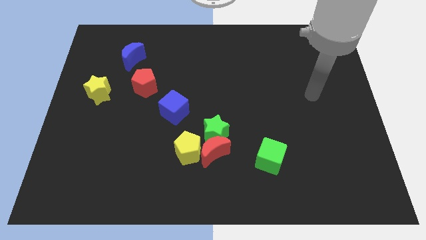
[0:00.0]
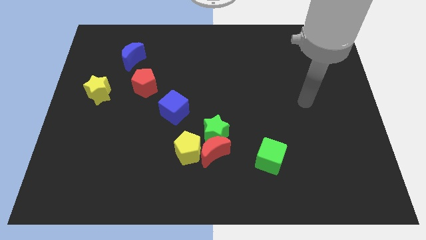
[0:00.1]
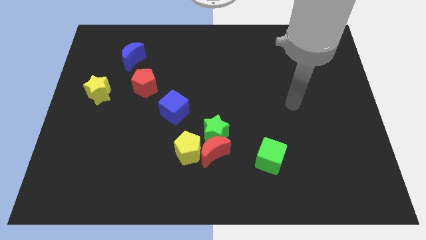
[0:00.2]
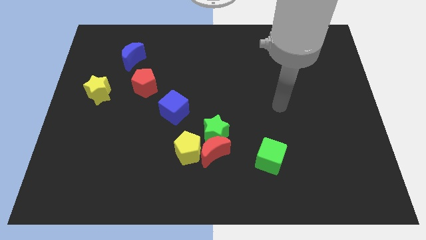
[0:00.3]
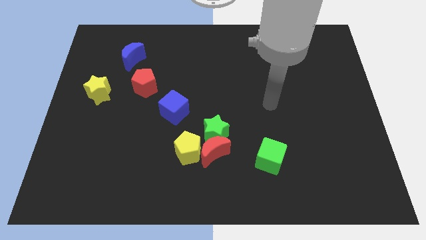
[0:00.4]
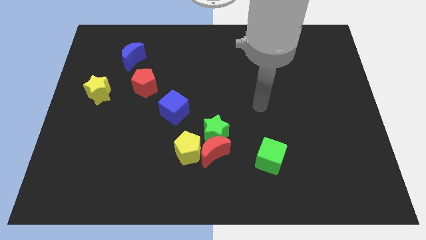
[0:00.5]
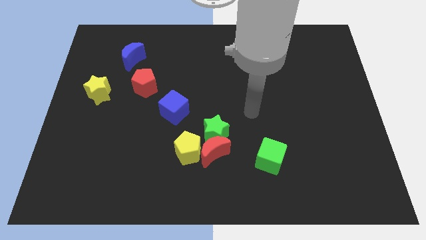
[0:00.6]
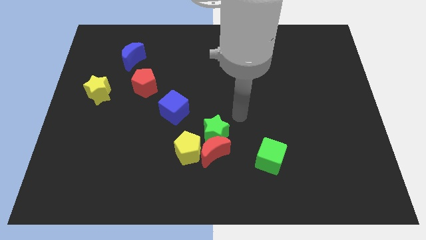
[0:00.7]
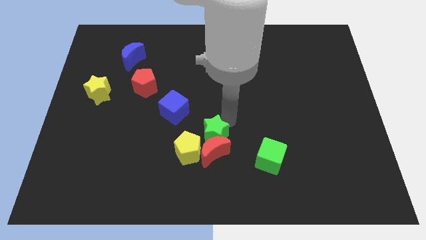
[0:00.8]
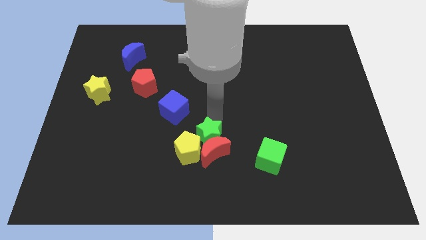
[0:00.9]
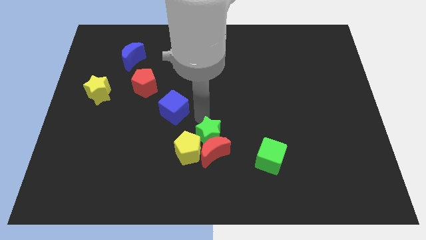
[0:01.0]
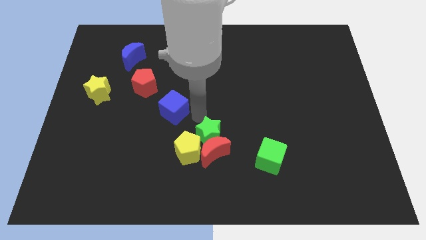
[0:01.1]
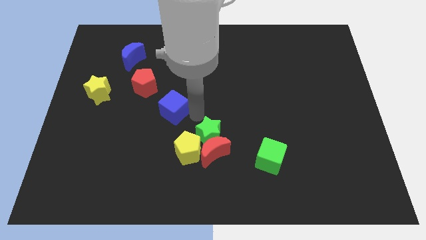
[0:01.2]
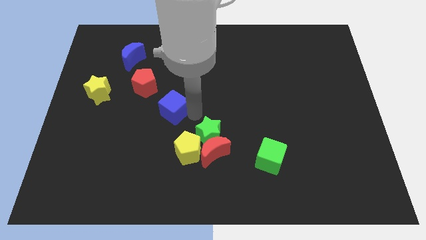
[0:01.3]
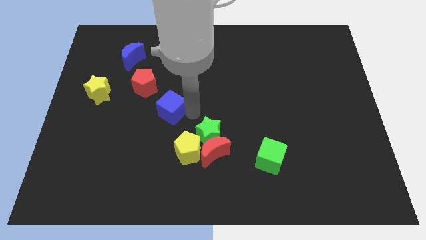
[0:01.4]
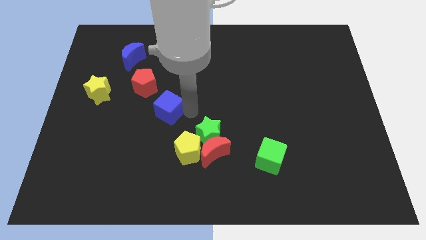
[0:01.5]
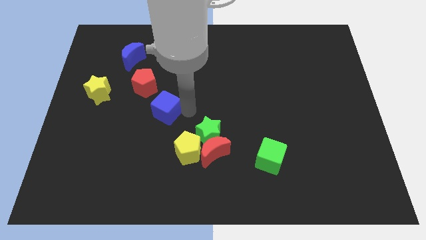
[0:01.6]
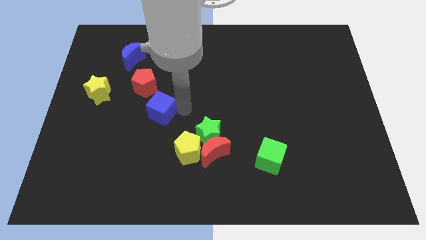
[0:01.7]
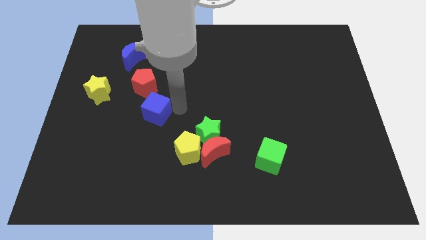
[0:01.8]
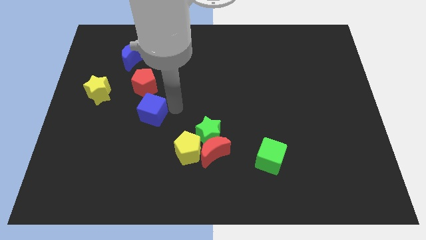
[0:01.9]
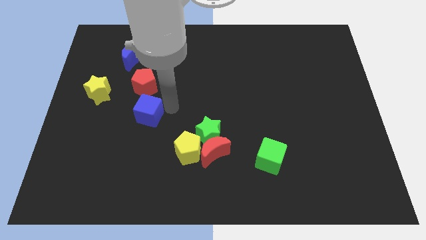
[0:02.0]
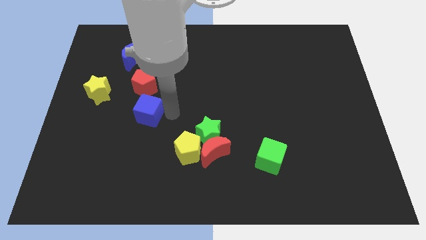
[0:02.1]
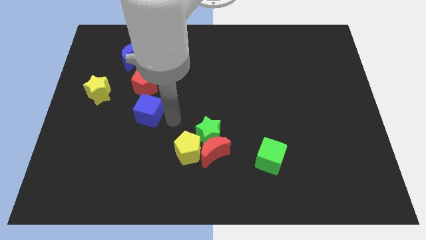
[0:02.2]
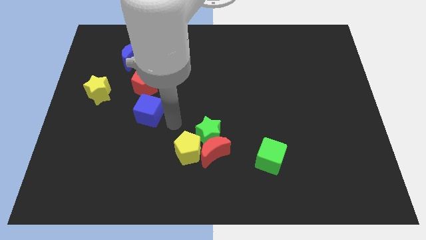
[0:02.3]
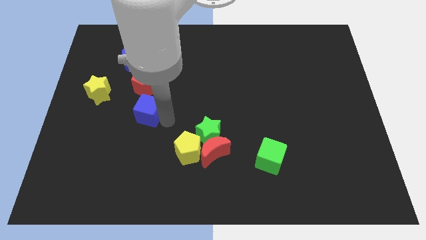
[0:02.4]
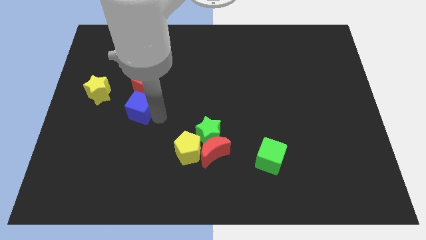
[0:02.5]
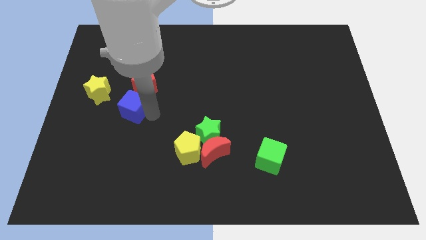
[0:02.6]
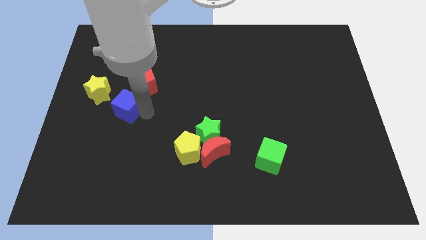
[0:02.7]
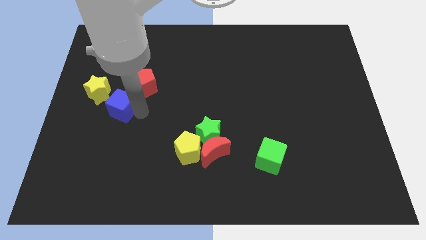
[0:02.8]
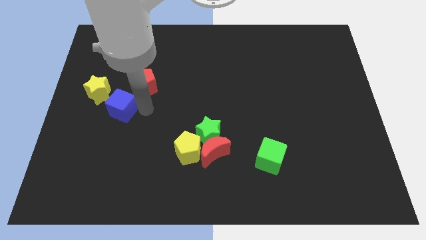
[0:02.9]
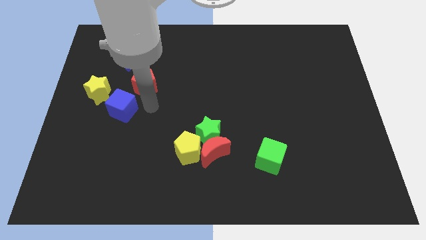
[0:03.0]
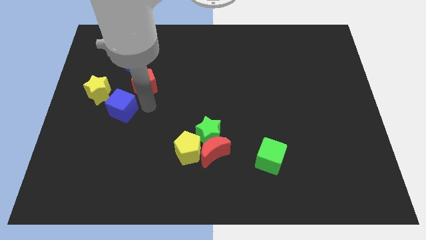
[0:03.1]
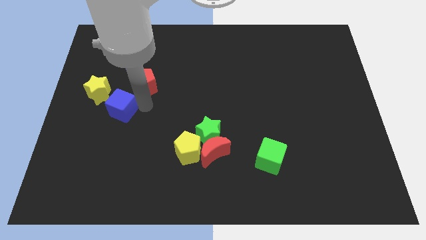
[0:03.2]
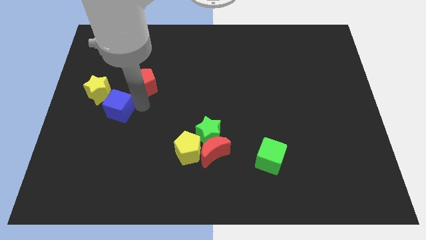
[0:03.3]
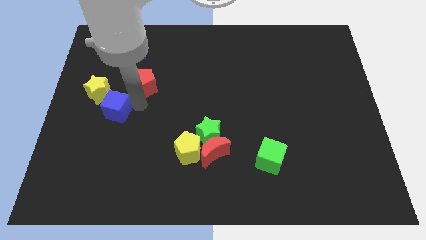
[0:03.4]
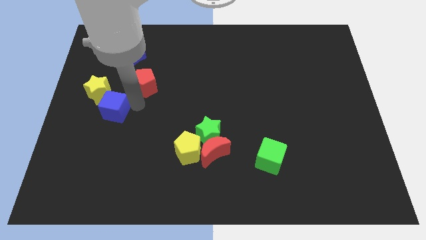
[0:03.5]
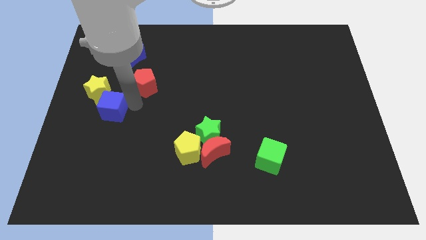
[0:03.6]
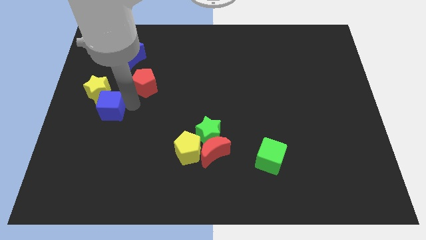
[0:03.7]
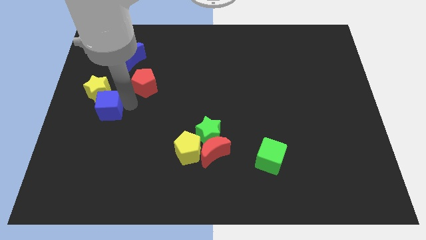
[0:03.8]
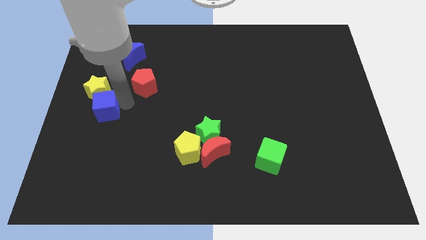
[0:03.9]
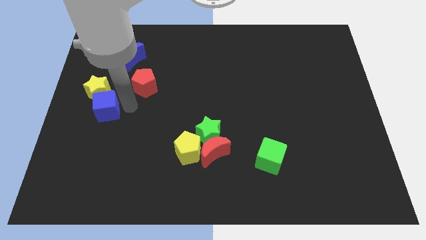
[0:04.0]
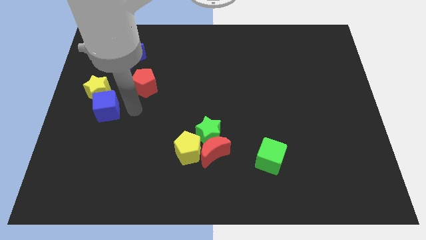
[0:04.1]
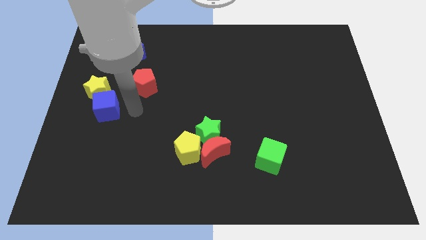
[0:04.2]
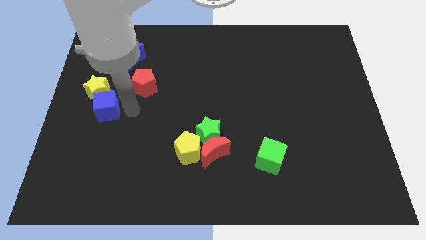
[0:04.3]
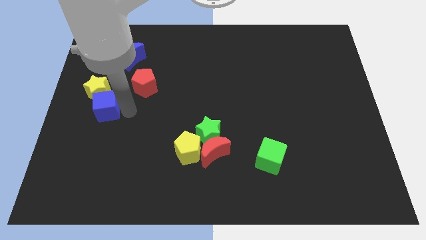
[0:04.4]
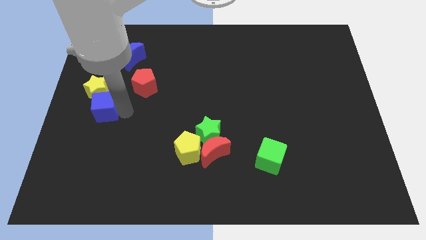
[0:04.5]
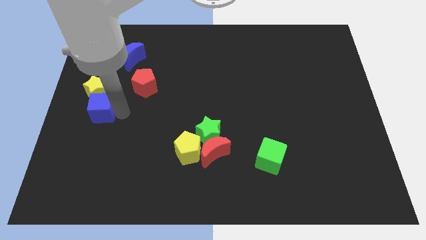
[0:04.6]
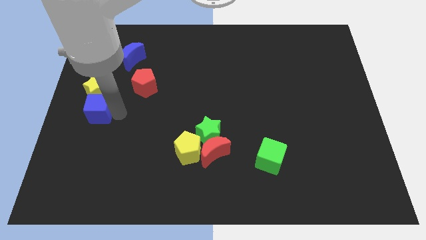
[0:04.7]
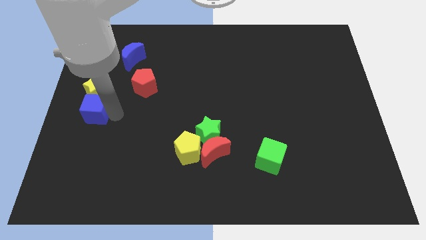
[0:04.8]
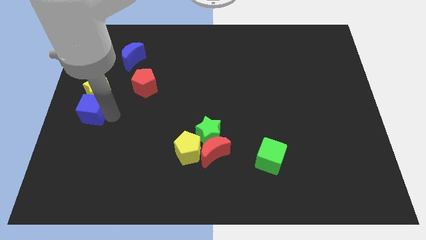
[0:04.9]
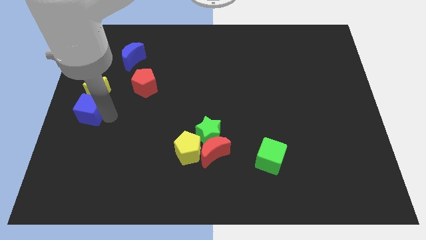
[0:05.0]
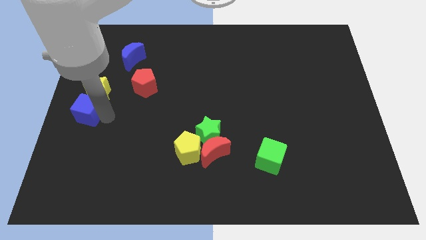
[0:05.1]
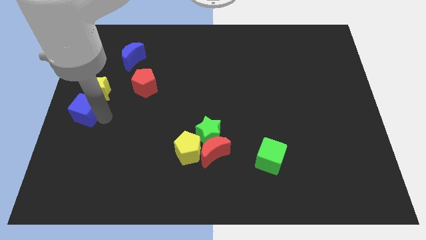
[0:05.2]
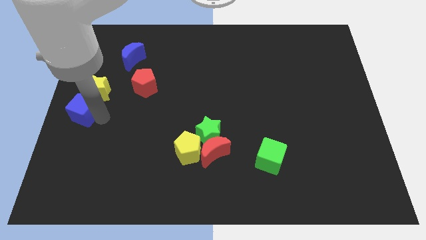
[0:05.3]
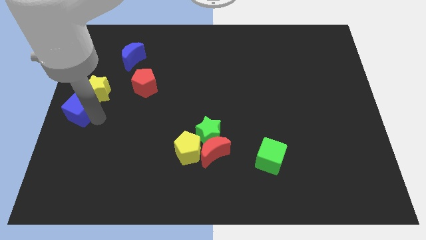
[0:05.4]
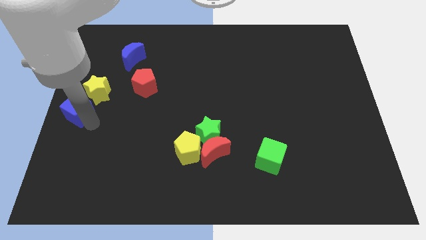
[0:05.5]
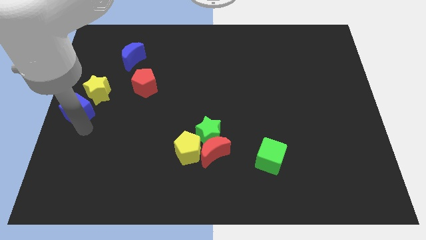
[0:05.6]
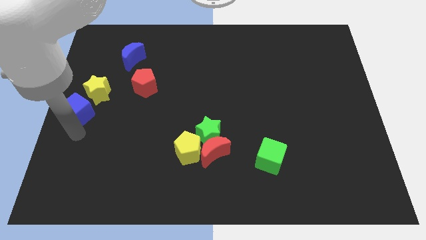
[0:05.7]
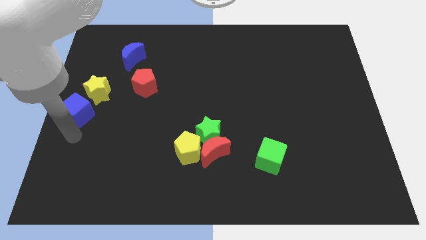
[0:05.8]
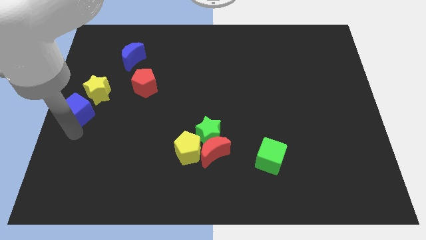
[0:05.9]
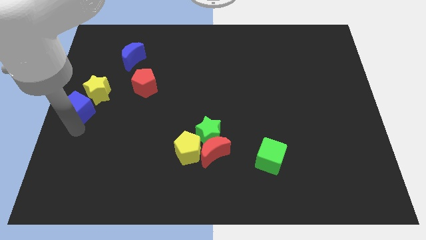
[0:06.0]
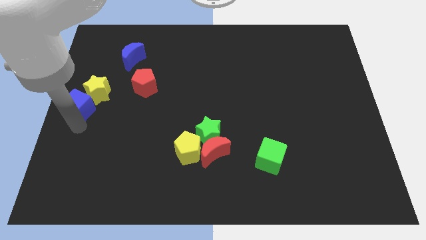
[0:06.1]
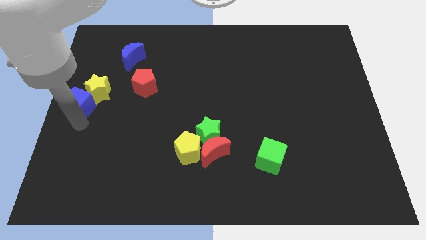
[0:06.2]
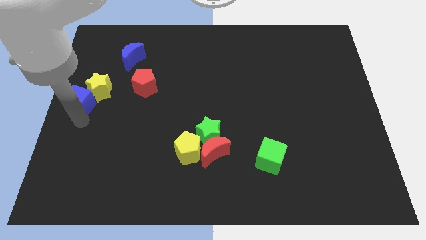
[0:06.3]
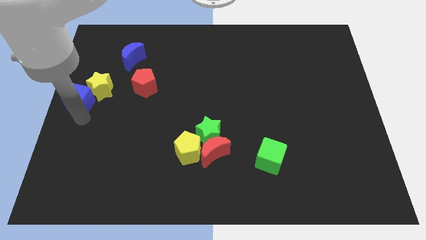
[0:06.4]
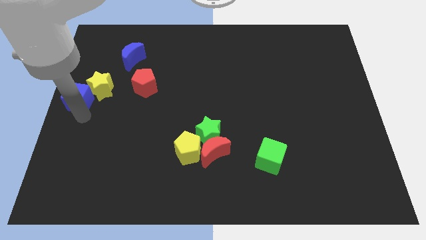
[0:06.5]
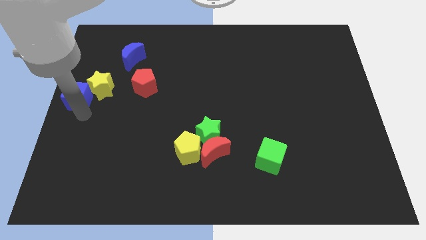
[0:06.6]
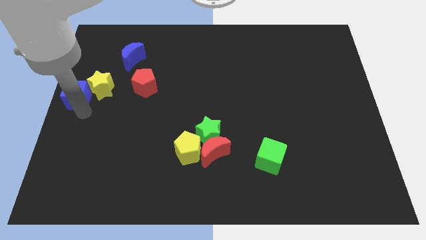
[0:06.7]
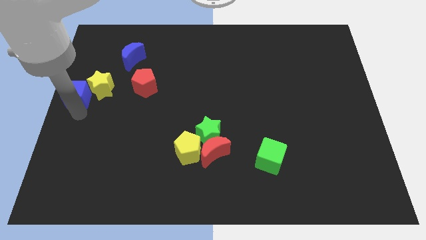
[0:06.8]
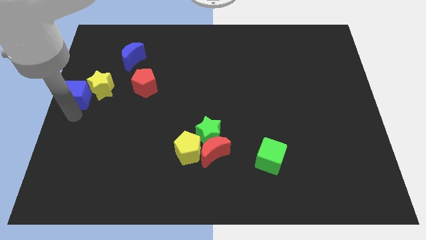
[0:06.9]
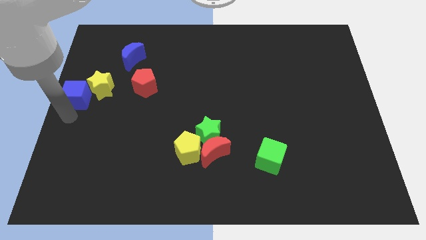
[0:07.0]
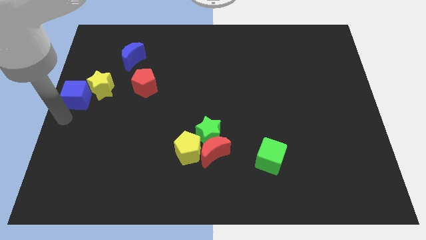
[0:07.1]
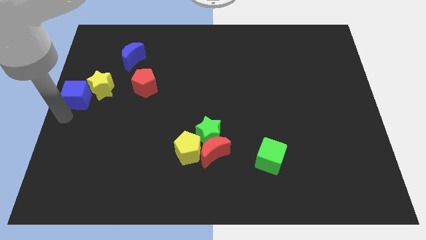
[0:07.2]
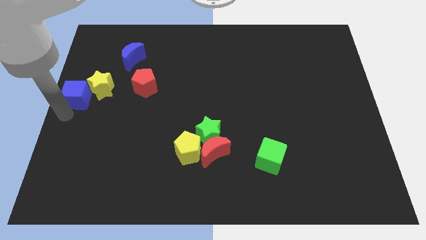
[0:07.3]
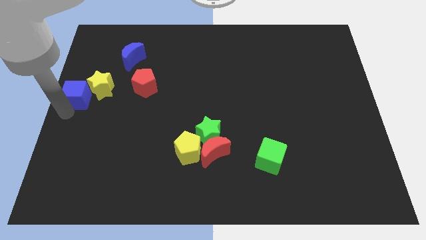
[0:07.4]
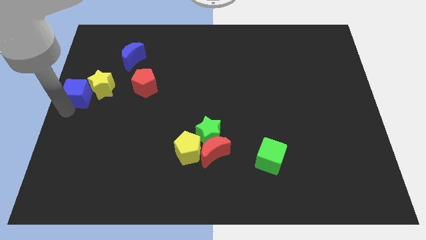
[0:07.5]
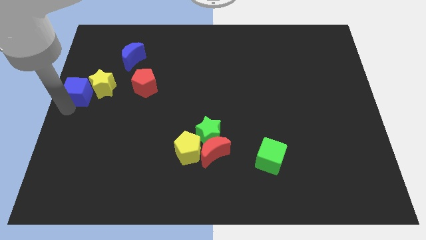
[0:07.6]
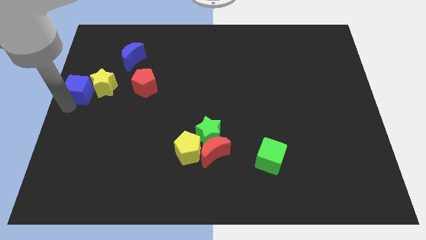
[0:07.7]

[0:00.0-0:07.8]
put the blue cube to the left side of the red pentagon
